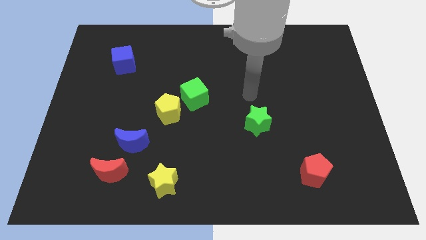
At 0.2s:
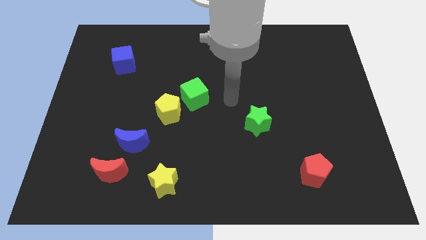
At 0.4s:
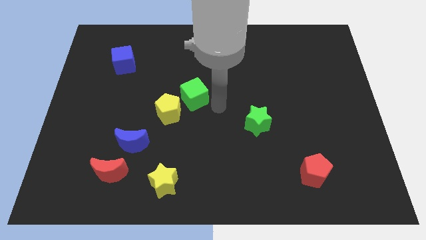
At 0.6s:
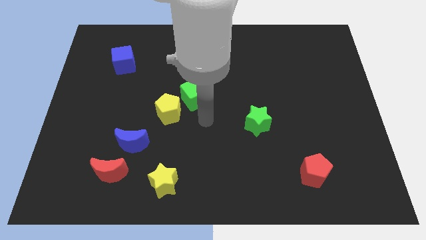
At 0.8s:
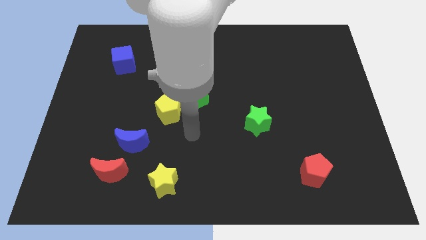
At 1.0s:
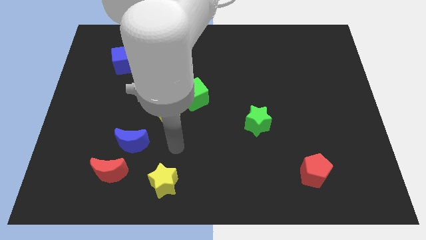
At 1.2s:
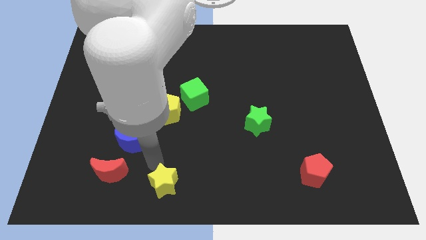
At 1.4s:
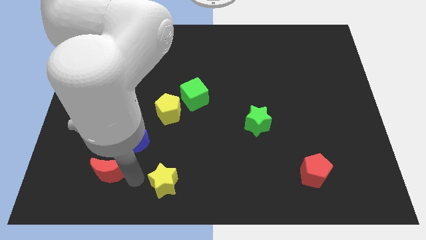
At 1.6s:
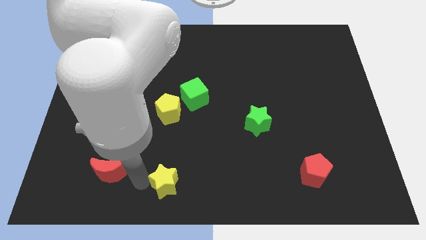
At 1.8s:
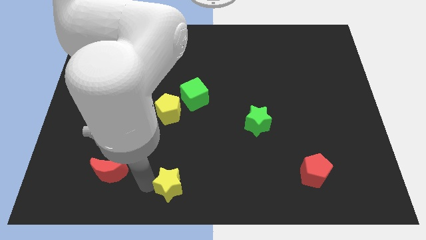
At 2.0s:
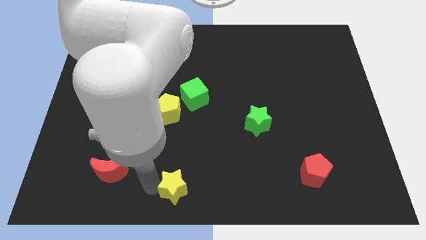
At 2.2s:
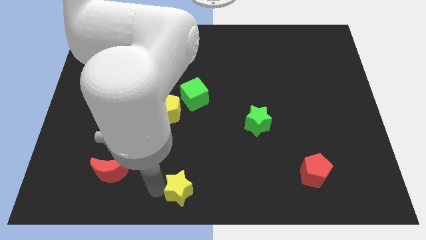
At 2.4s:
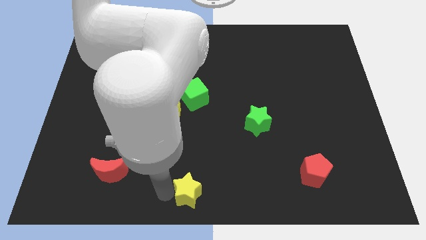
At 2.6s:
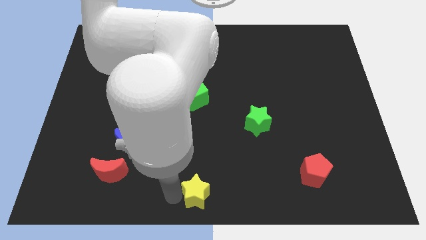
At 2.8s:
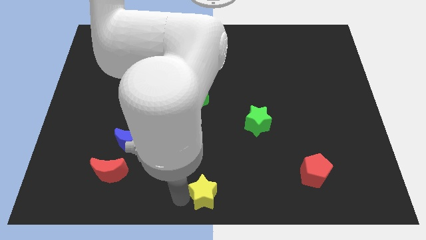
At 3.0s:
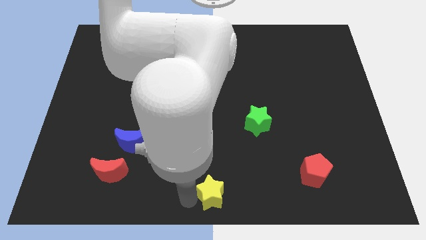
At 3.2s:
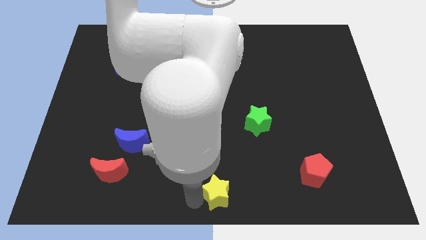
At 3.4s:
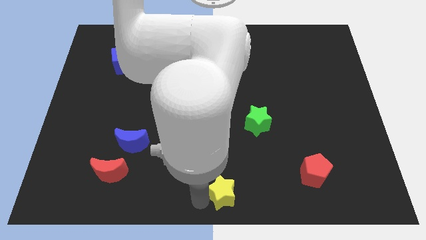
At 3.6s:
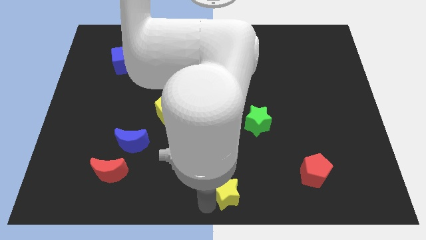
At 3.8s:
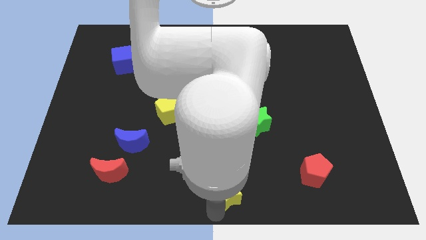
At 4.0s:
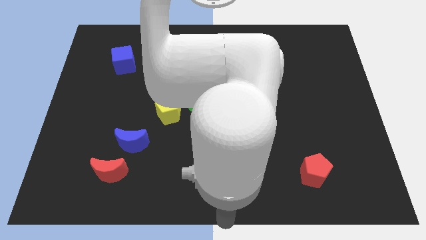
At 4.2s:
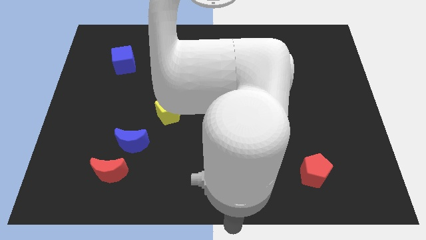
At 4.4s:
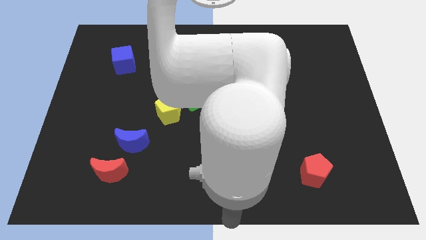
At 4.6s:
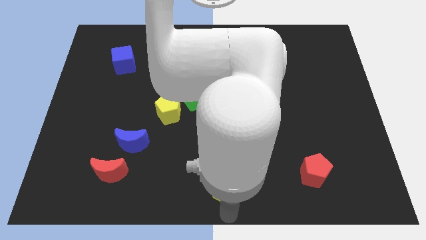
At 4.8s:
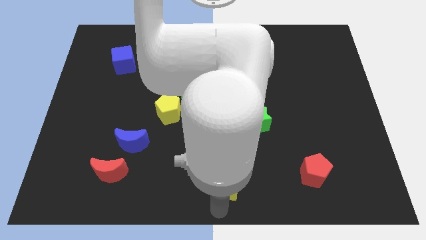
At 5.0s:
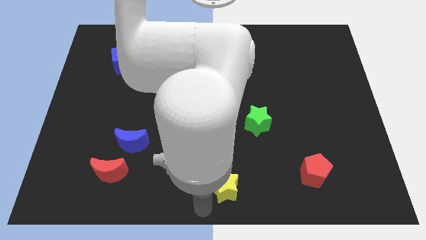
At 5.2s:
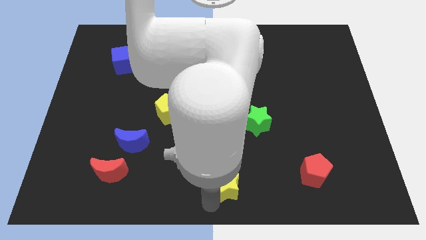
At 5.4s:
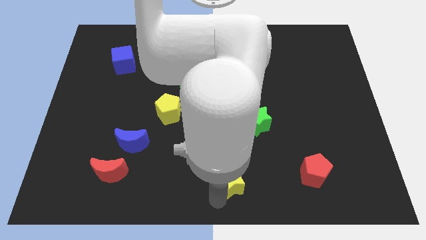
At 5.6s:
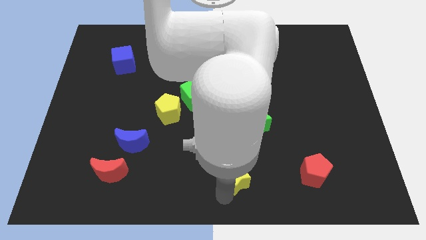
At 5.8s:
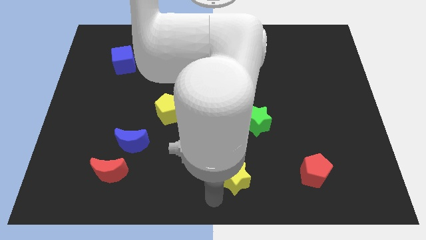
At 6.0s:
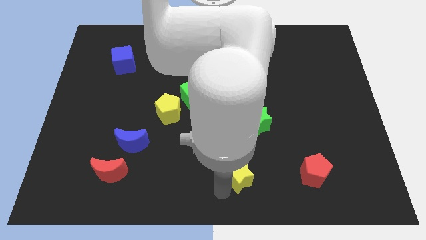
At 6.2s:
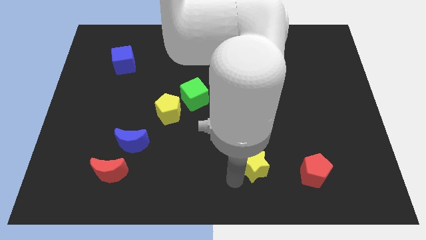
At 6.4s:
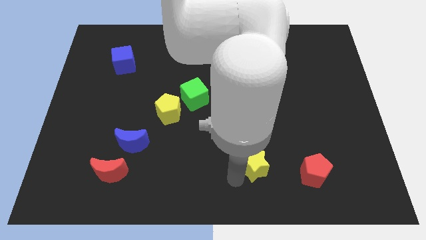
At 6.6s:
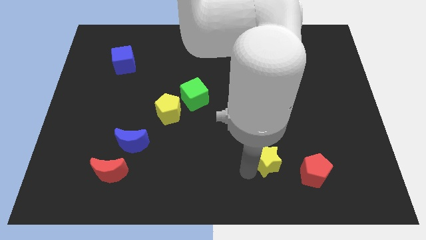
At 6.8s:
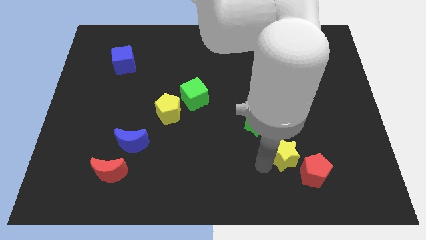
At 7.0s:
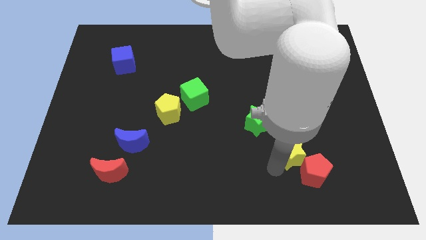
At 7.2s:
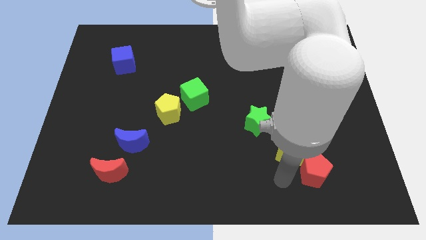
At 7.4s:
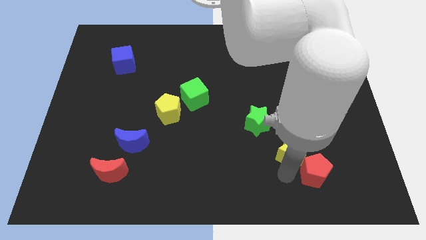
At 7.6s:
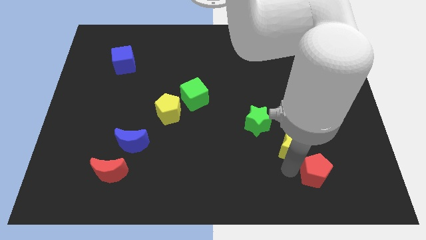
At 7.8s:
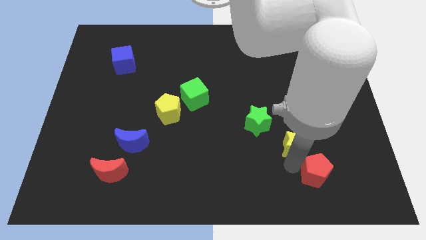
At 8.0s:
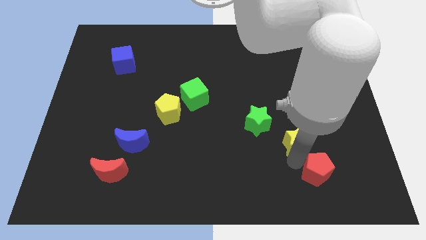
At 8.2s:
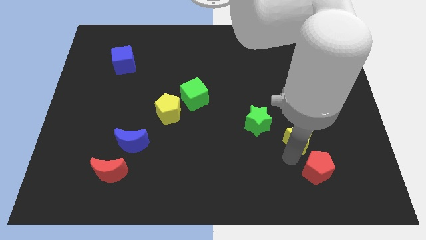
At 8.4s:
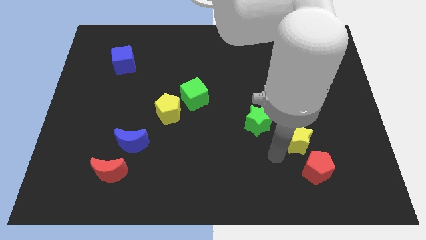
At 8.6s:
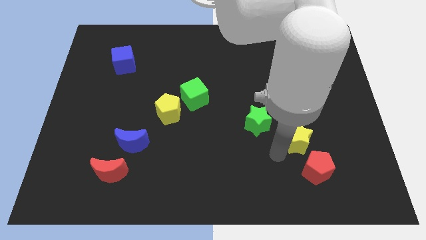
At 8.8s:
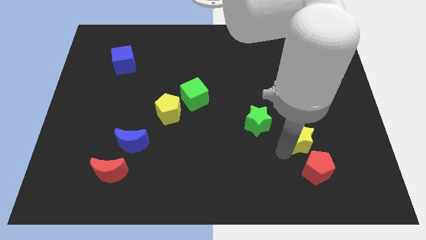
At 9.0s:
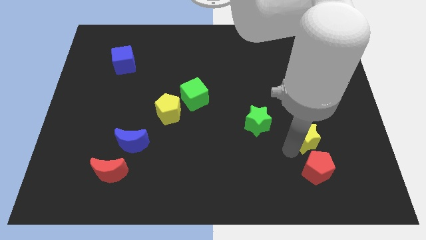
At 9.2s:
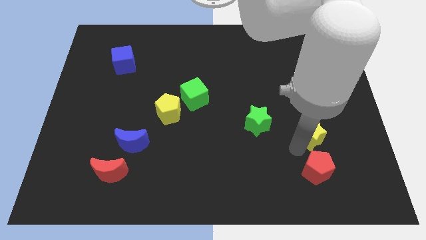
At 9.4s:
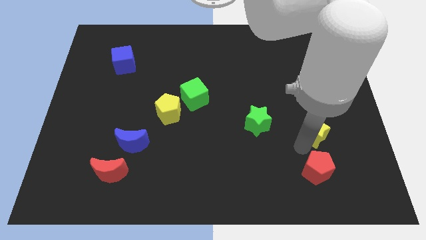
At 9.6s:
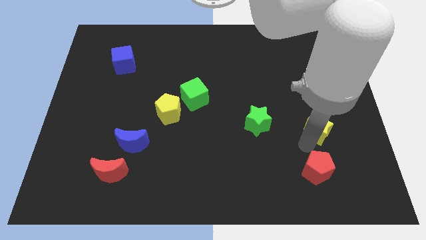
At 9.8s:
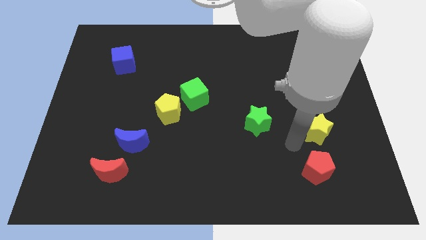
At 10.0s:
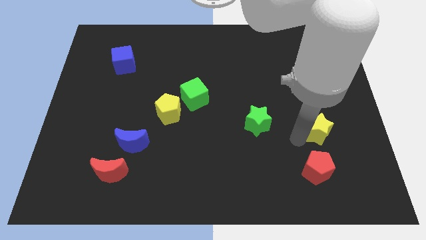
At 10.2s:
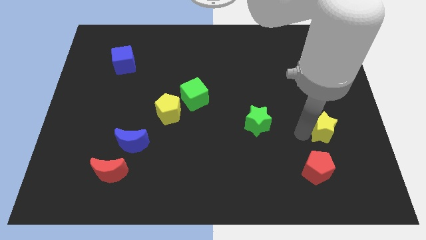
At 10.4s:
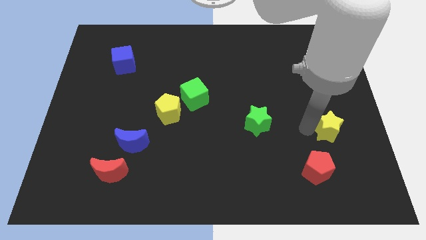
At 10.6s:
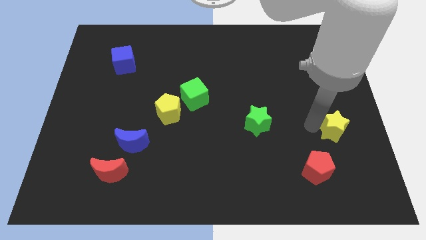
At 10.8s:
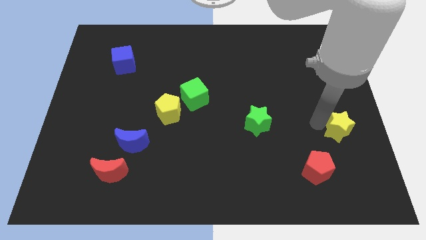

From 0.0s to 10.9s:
move the yellow star to the center right
